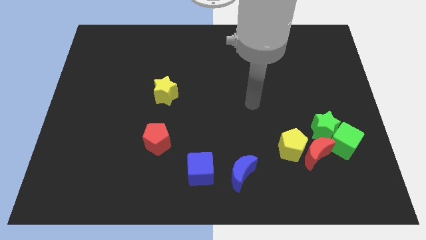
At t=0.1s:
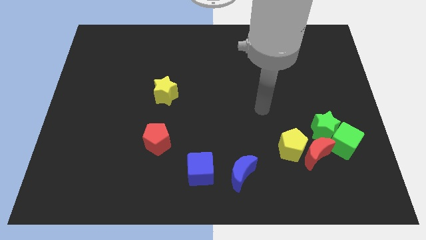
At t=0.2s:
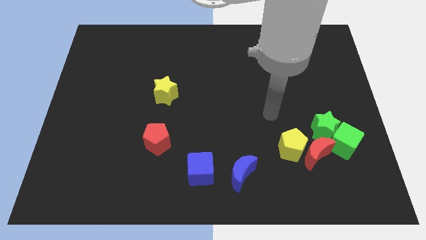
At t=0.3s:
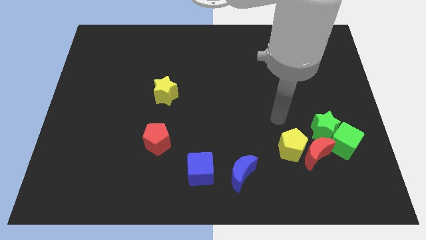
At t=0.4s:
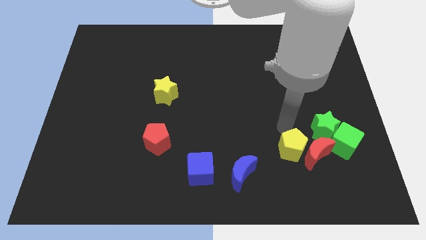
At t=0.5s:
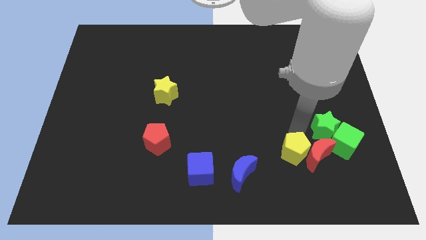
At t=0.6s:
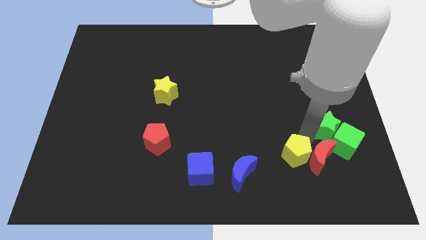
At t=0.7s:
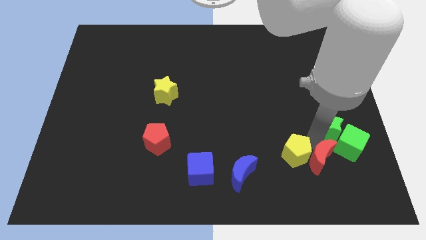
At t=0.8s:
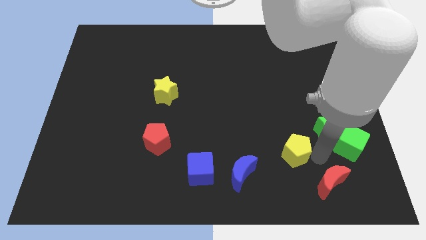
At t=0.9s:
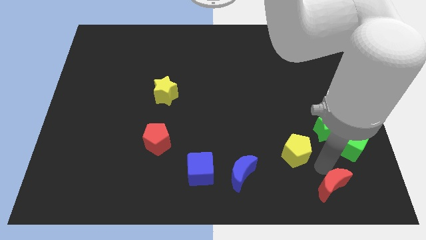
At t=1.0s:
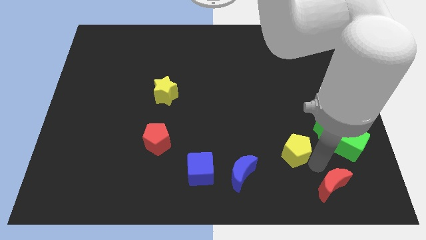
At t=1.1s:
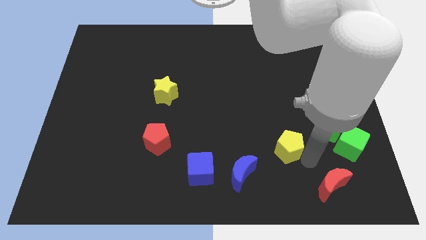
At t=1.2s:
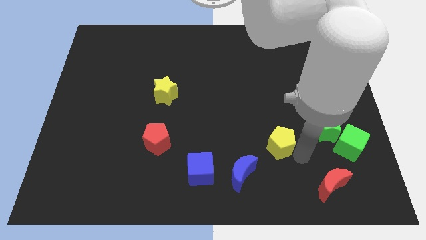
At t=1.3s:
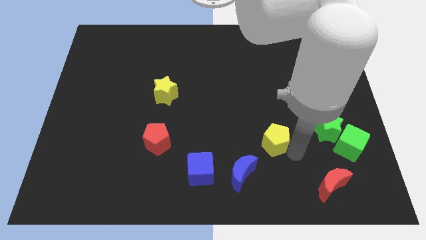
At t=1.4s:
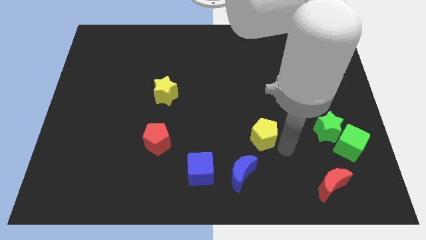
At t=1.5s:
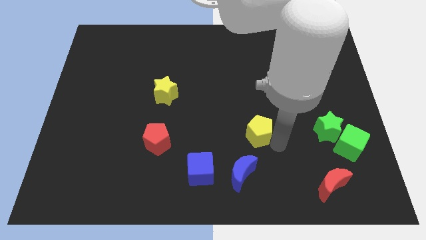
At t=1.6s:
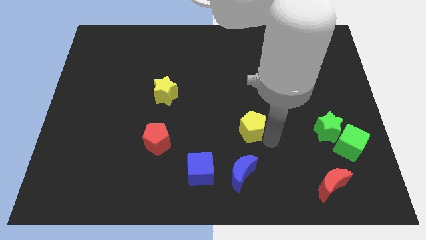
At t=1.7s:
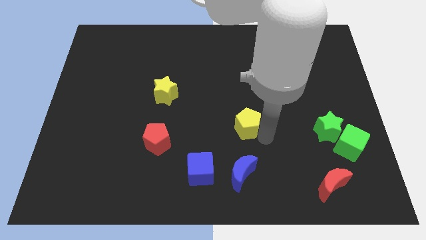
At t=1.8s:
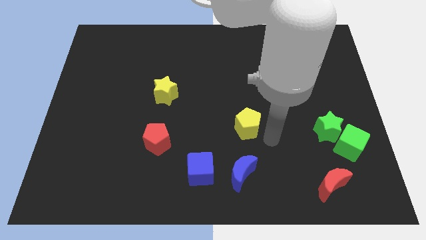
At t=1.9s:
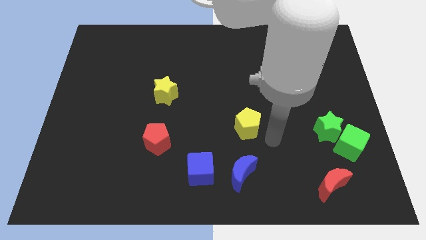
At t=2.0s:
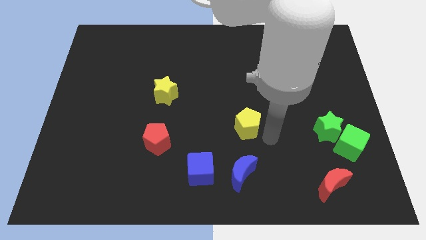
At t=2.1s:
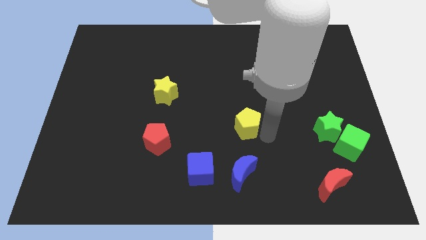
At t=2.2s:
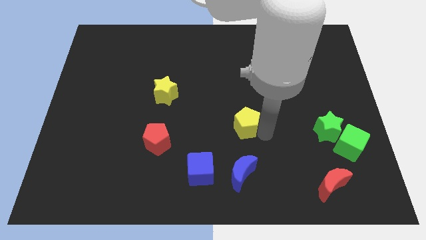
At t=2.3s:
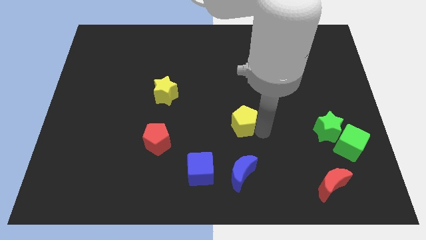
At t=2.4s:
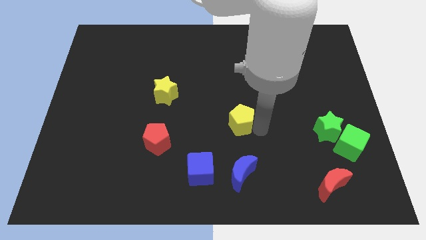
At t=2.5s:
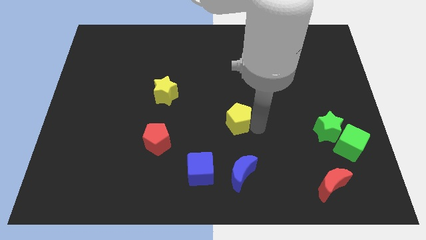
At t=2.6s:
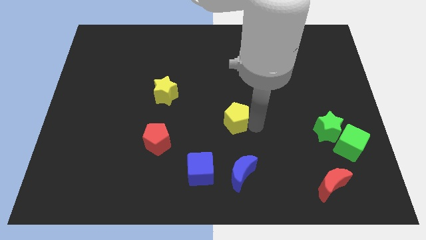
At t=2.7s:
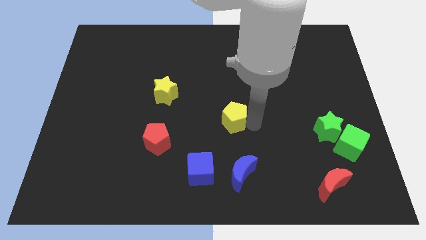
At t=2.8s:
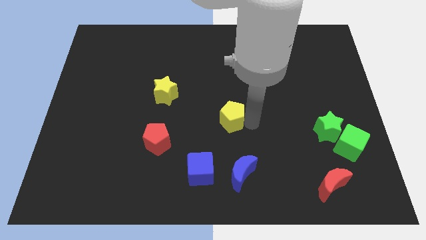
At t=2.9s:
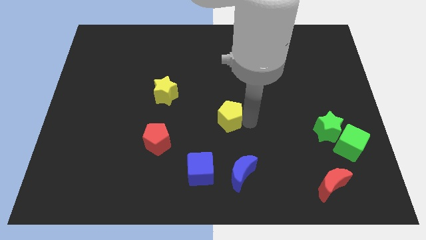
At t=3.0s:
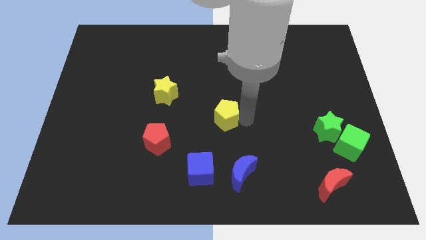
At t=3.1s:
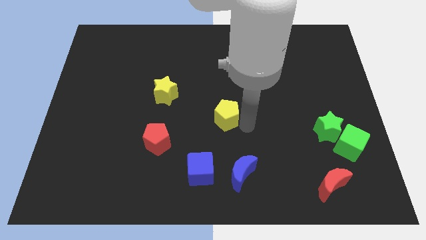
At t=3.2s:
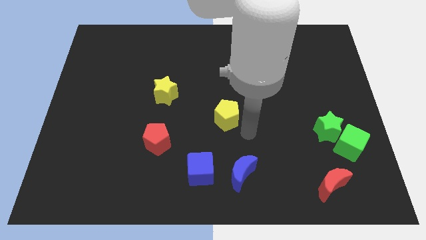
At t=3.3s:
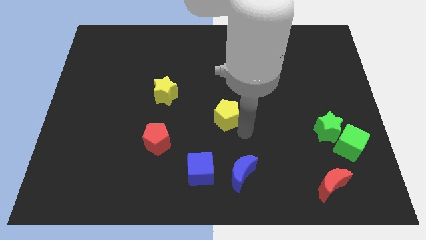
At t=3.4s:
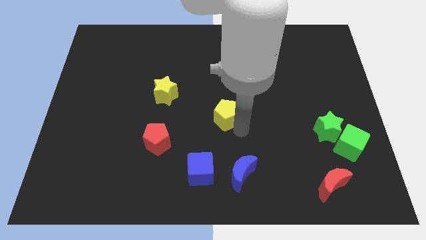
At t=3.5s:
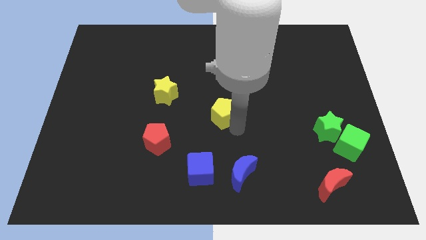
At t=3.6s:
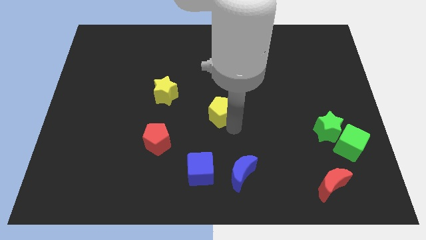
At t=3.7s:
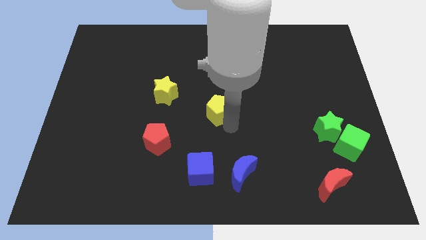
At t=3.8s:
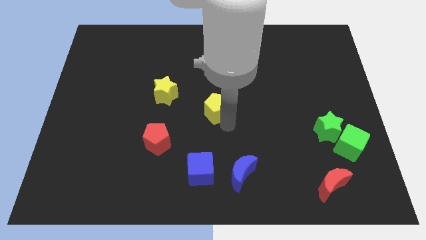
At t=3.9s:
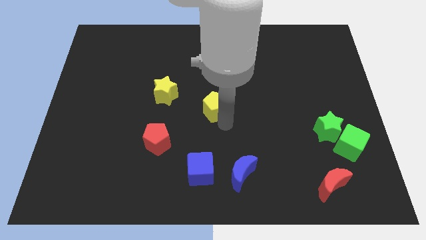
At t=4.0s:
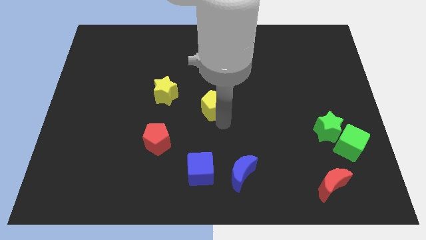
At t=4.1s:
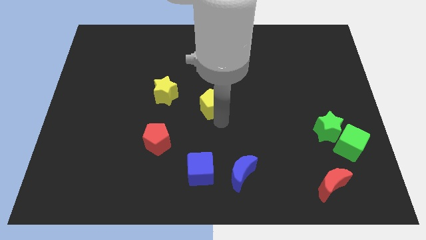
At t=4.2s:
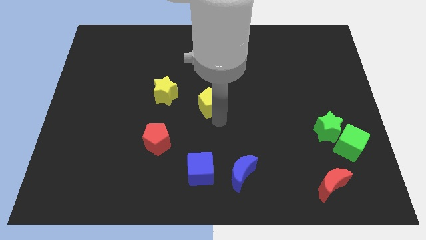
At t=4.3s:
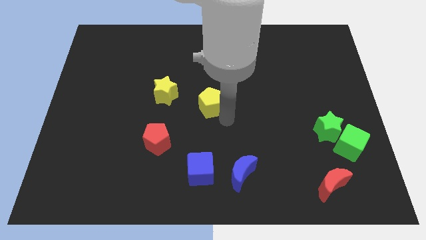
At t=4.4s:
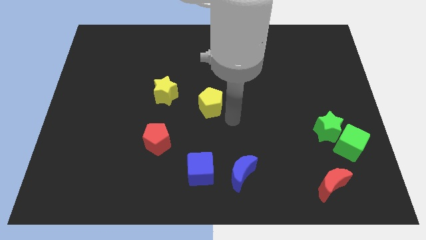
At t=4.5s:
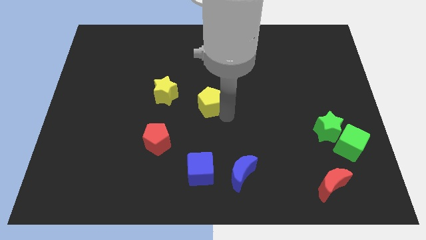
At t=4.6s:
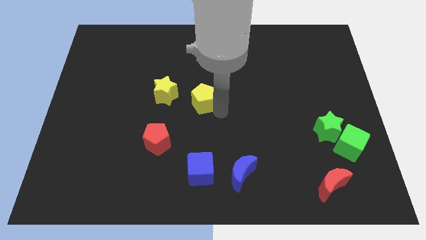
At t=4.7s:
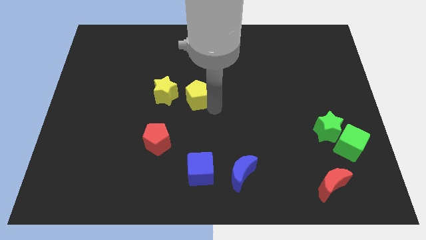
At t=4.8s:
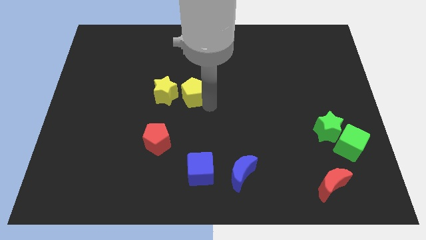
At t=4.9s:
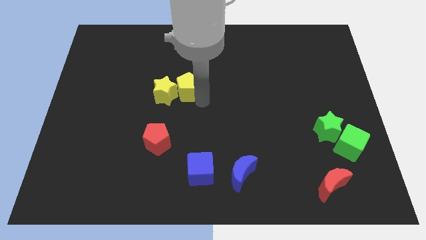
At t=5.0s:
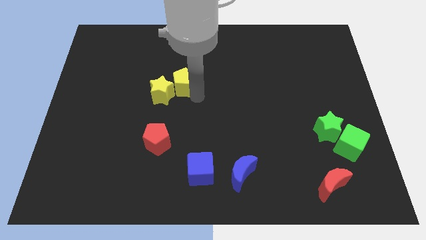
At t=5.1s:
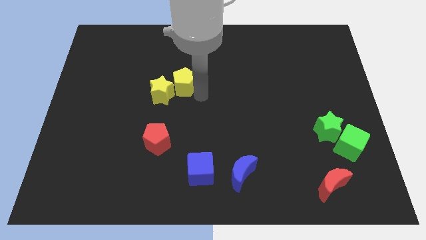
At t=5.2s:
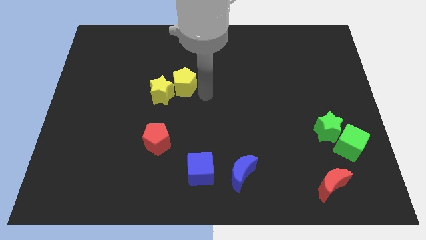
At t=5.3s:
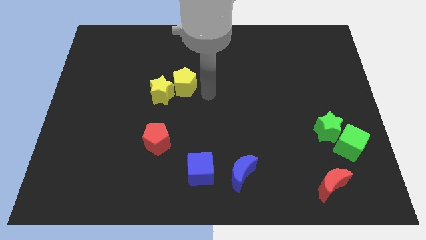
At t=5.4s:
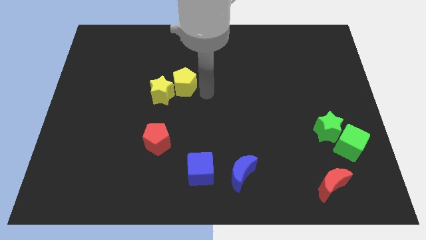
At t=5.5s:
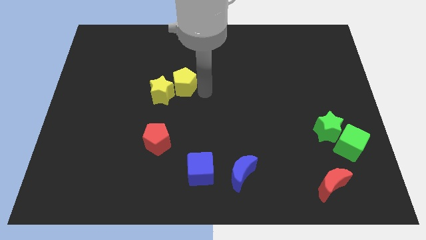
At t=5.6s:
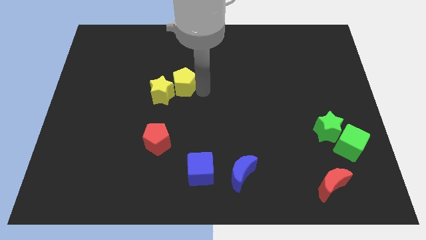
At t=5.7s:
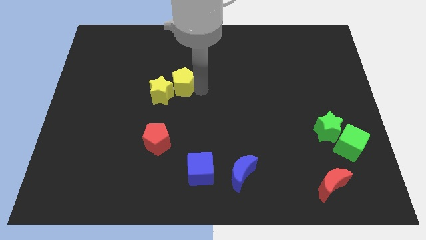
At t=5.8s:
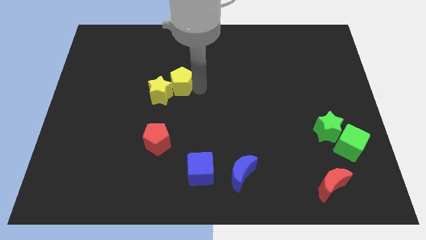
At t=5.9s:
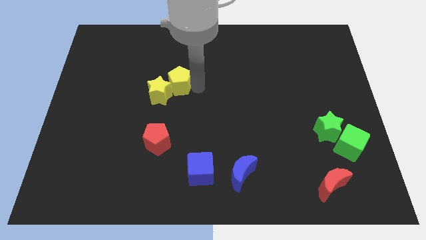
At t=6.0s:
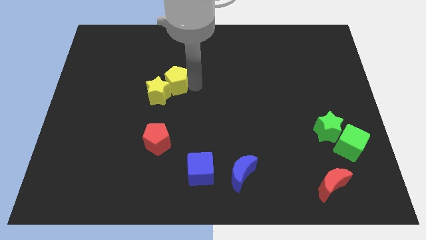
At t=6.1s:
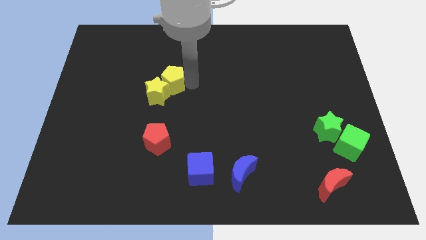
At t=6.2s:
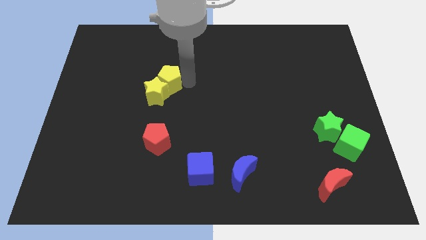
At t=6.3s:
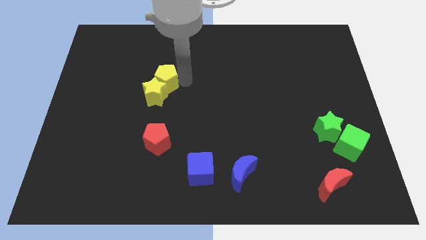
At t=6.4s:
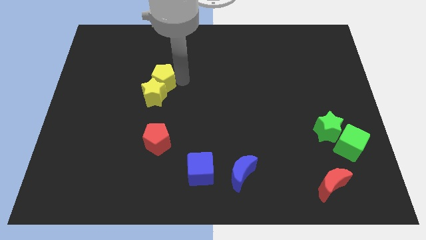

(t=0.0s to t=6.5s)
push the yellow pentagon to the top left side of the yellow star

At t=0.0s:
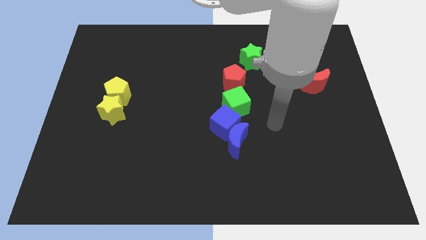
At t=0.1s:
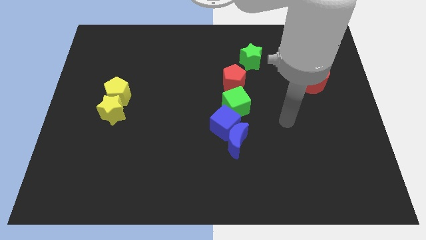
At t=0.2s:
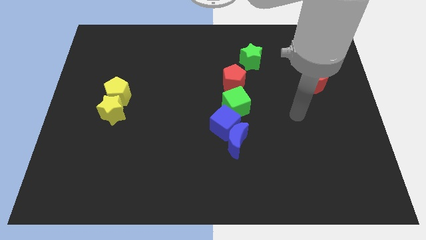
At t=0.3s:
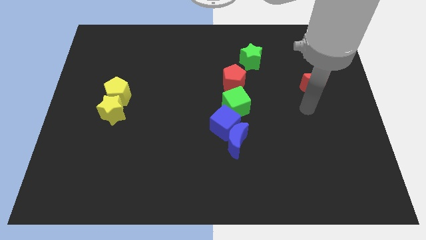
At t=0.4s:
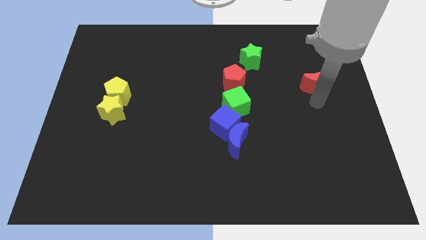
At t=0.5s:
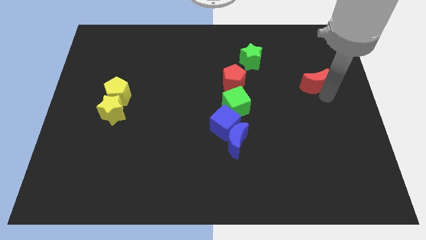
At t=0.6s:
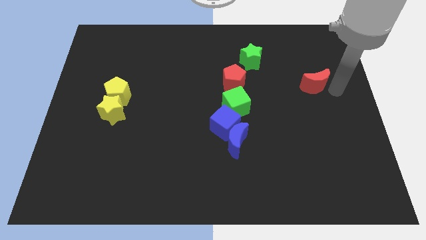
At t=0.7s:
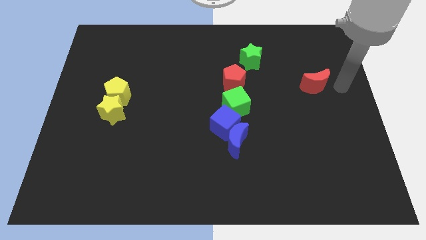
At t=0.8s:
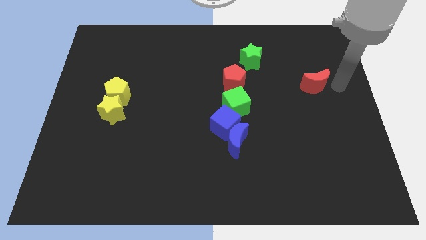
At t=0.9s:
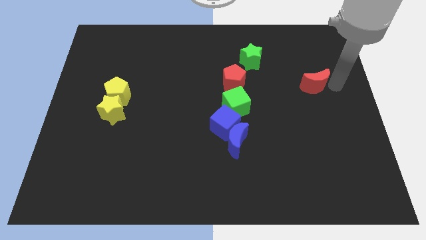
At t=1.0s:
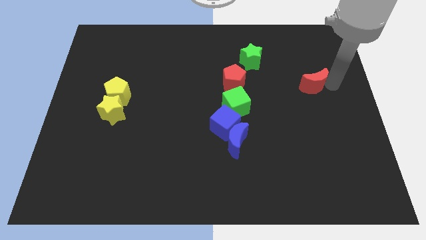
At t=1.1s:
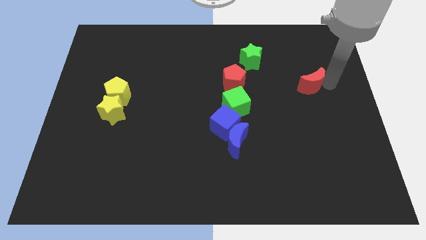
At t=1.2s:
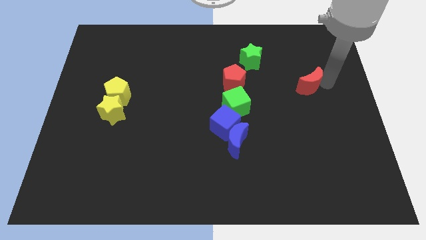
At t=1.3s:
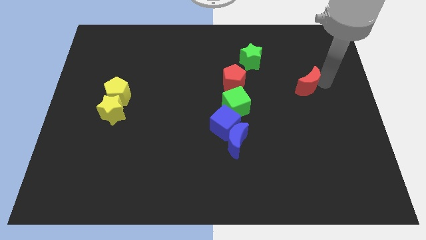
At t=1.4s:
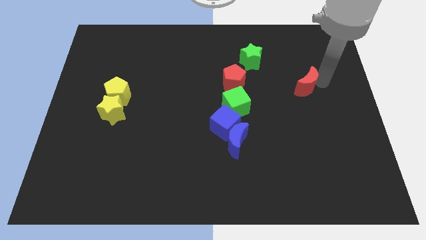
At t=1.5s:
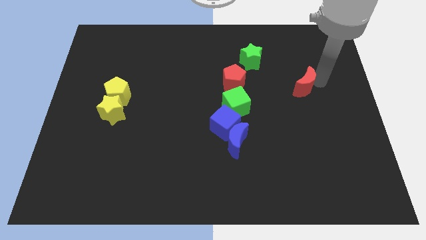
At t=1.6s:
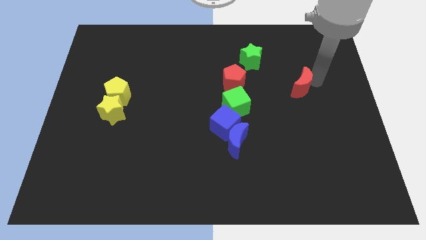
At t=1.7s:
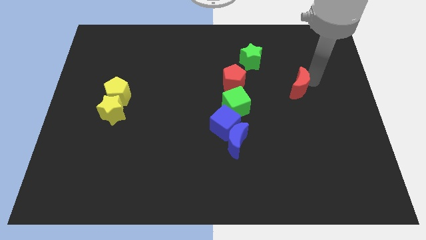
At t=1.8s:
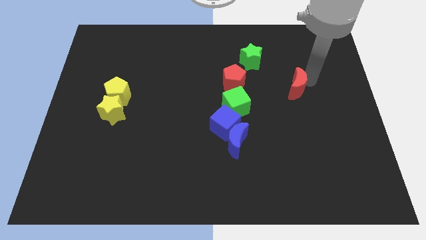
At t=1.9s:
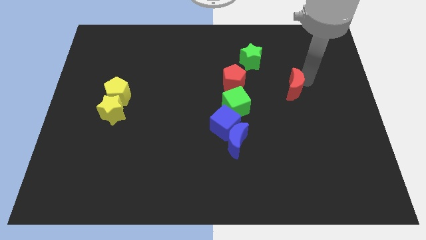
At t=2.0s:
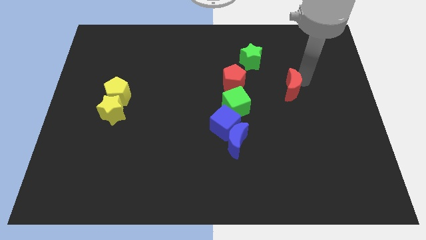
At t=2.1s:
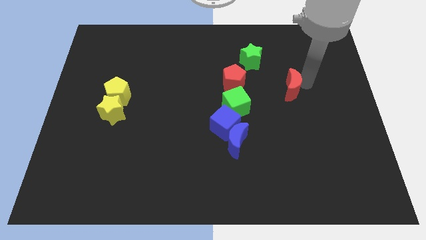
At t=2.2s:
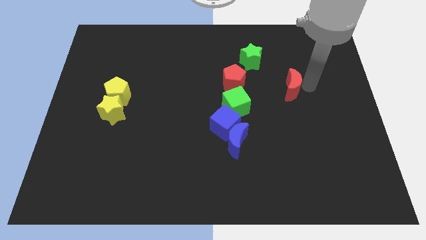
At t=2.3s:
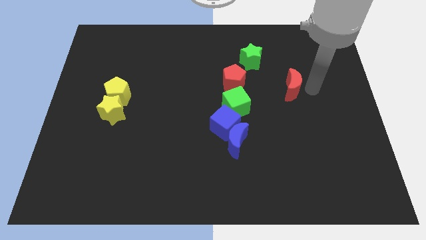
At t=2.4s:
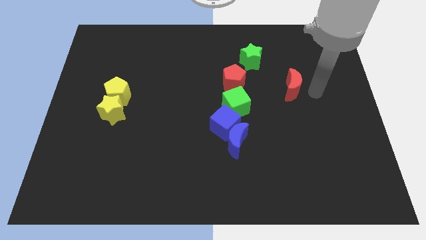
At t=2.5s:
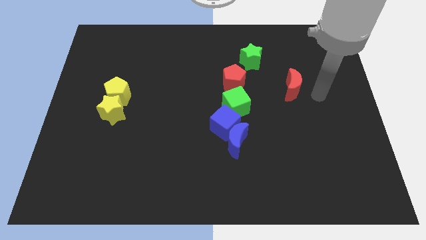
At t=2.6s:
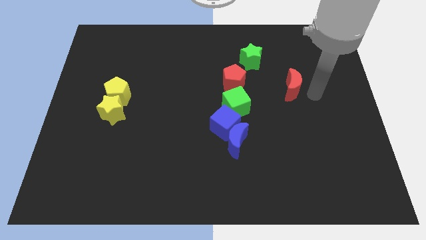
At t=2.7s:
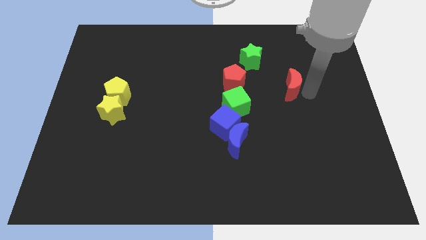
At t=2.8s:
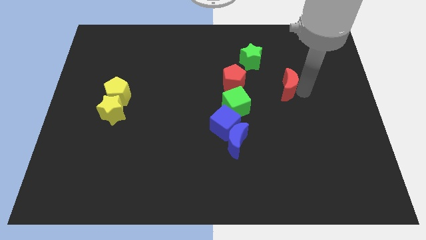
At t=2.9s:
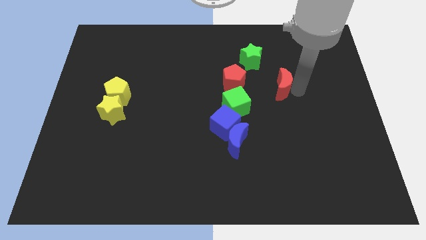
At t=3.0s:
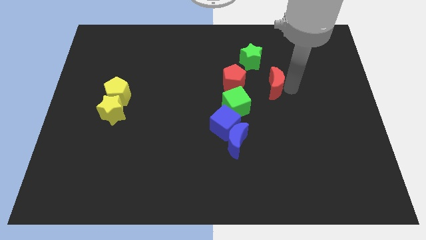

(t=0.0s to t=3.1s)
slide the red moon to the top right side of the green cube
